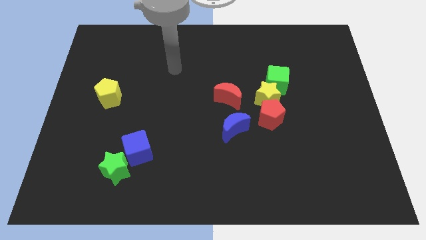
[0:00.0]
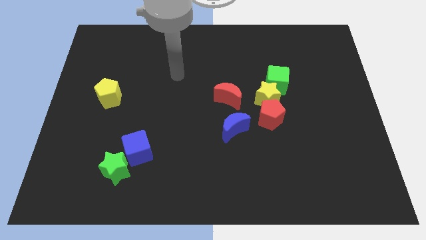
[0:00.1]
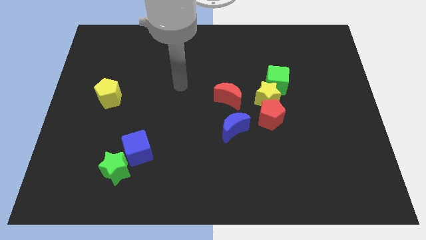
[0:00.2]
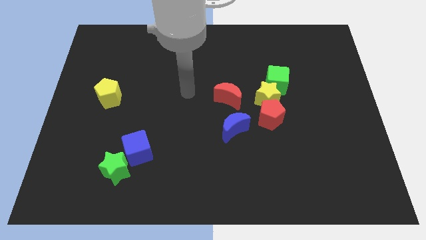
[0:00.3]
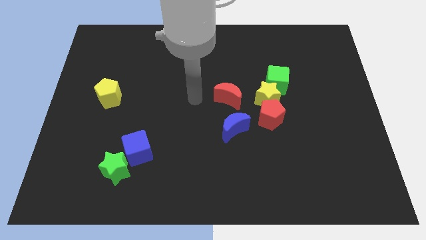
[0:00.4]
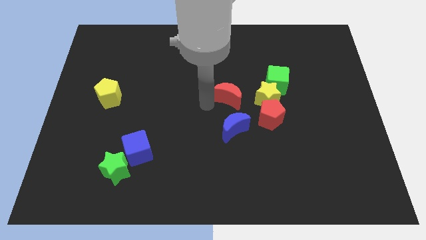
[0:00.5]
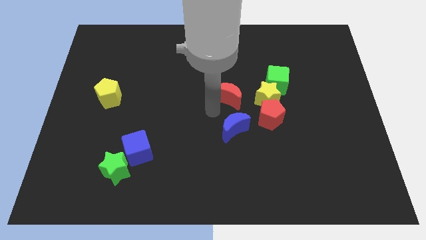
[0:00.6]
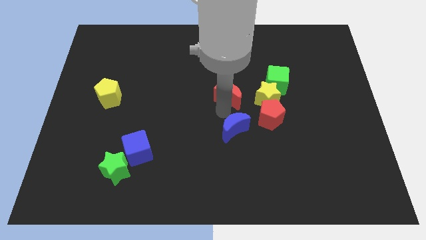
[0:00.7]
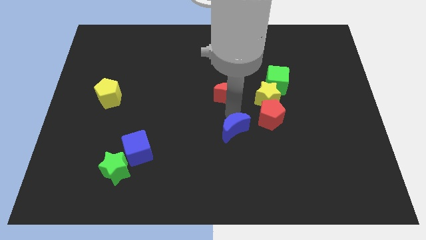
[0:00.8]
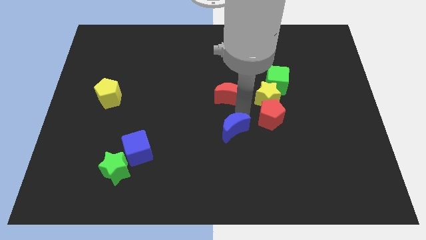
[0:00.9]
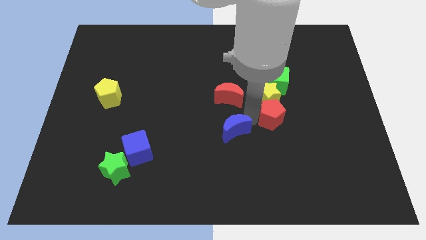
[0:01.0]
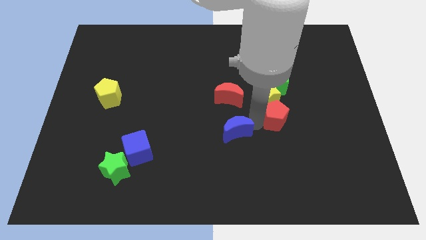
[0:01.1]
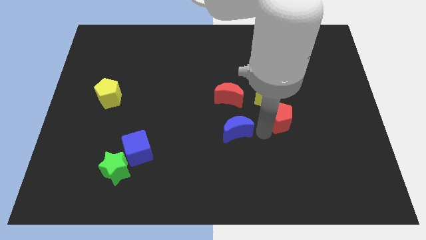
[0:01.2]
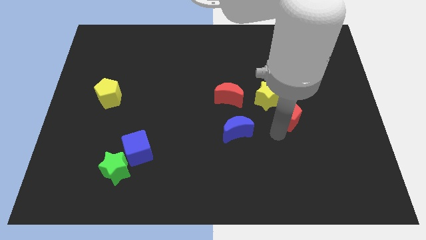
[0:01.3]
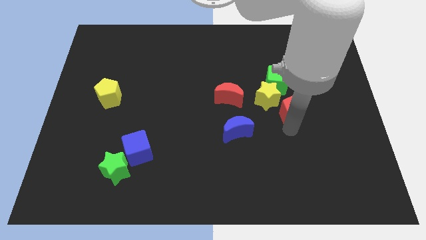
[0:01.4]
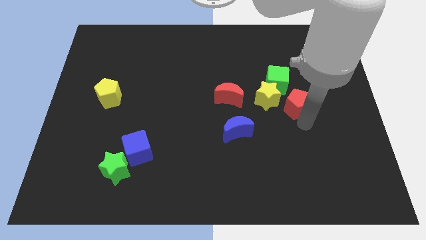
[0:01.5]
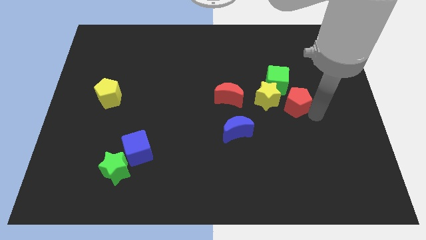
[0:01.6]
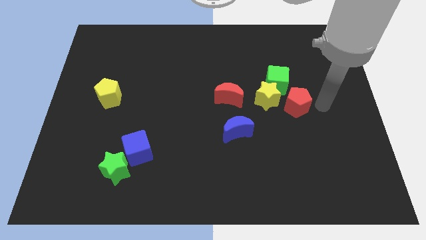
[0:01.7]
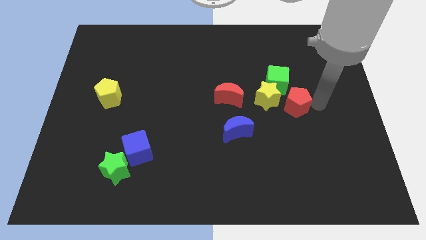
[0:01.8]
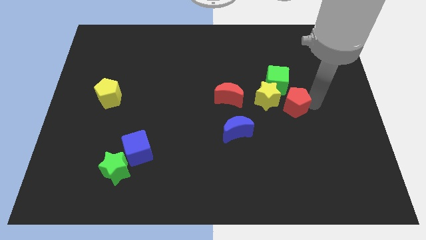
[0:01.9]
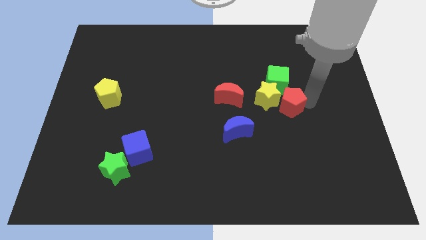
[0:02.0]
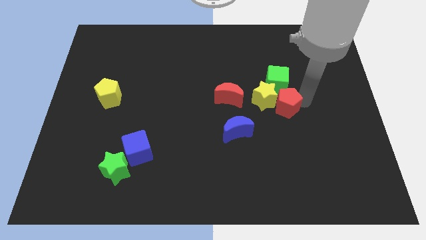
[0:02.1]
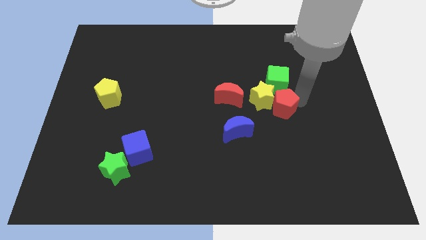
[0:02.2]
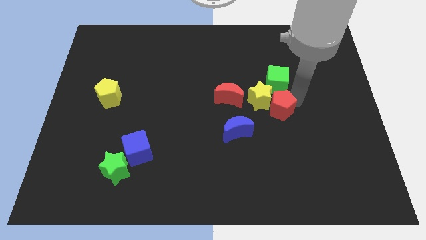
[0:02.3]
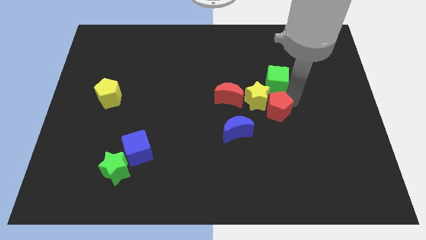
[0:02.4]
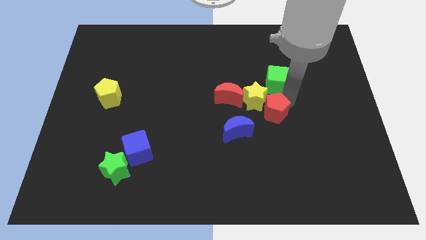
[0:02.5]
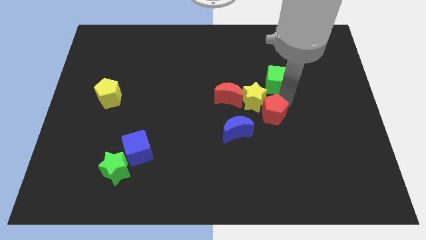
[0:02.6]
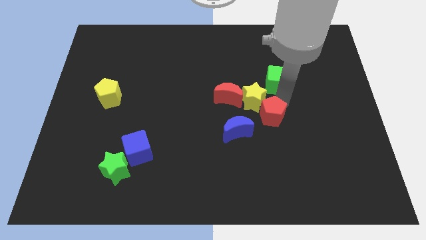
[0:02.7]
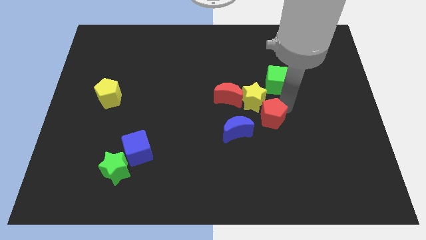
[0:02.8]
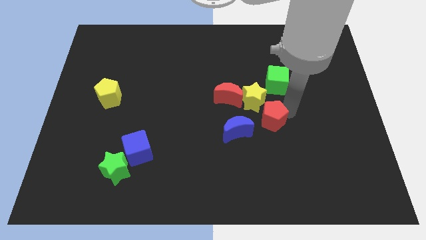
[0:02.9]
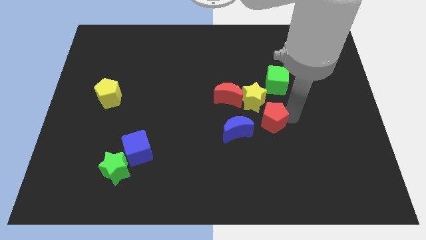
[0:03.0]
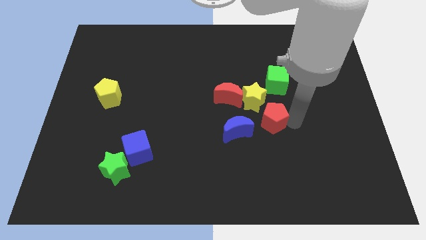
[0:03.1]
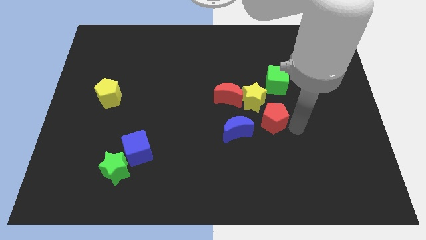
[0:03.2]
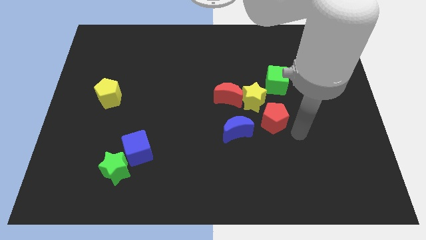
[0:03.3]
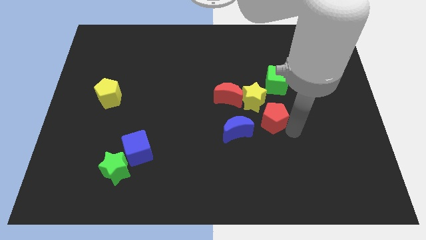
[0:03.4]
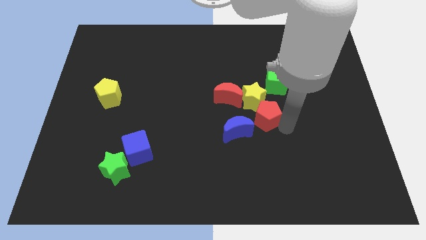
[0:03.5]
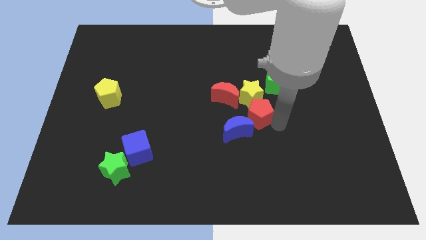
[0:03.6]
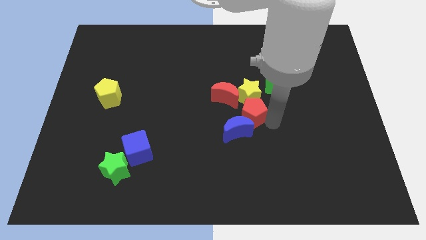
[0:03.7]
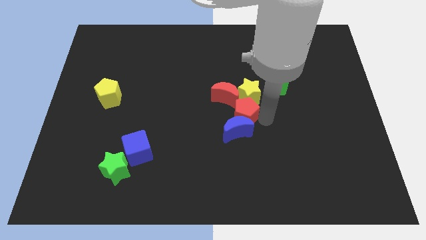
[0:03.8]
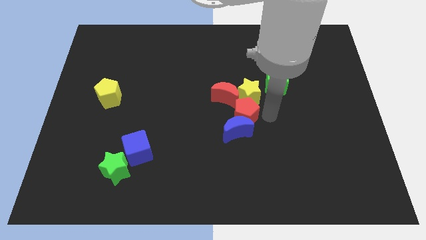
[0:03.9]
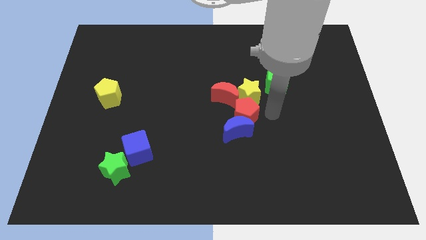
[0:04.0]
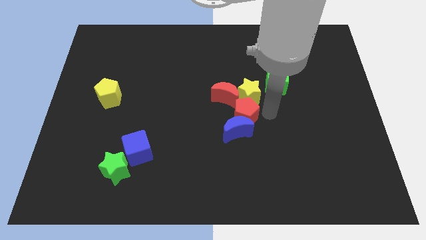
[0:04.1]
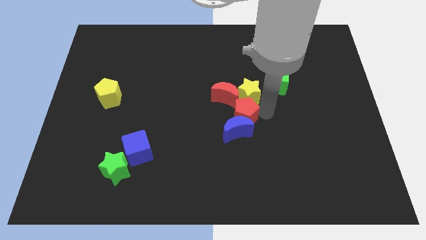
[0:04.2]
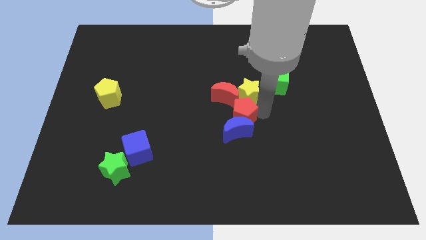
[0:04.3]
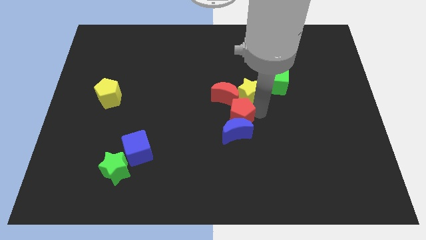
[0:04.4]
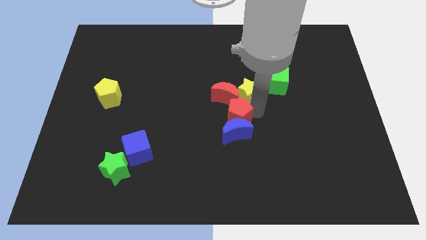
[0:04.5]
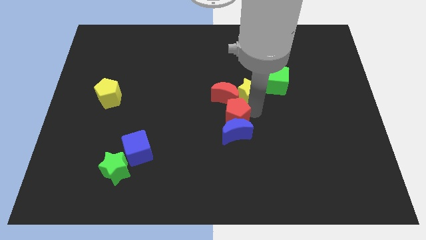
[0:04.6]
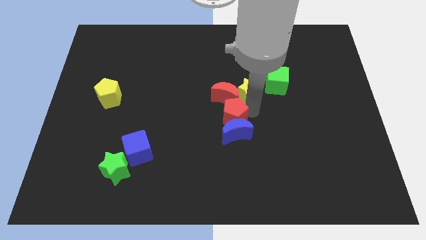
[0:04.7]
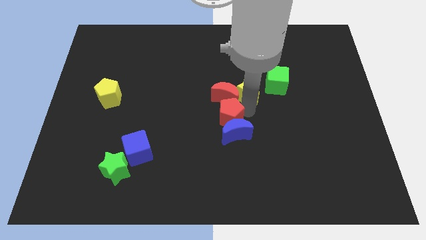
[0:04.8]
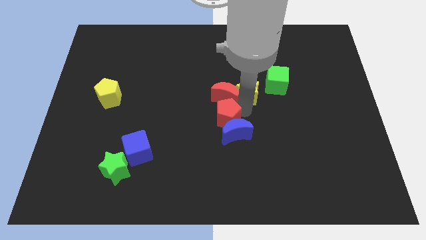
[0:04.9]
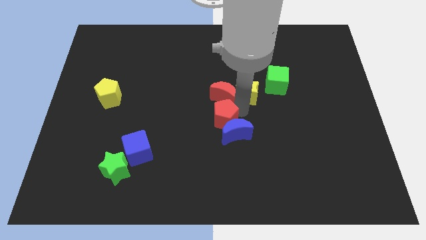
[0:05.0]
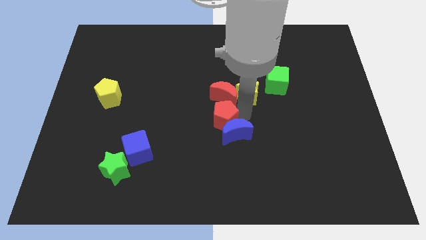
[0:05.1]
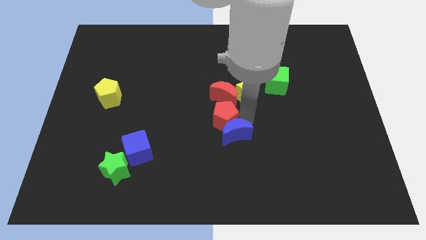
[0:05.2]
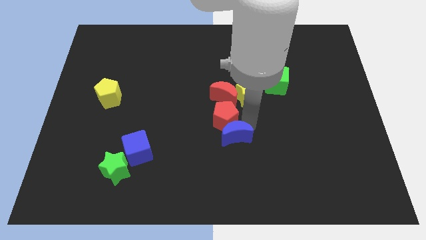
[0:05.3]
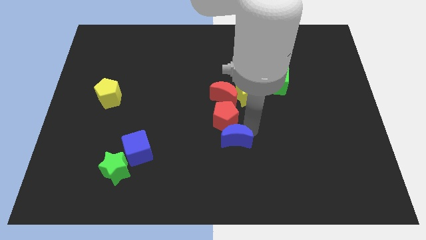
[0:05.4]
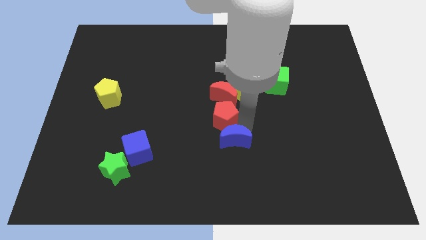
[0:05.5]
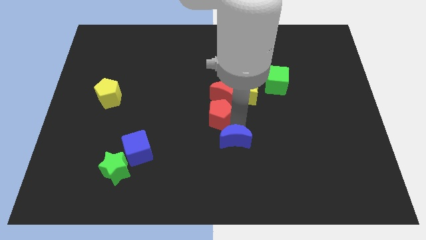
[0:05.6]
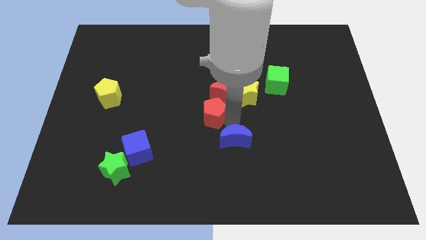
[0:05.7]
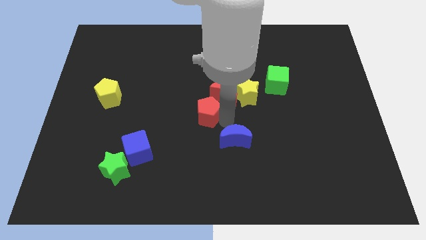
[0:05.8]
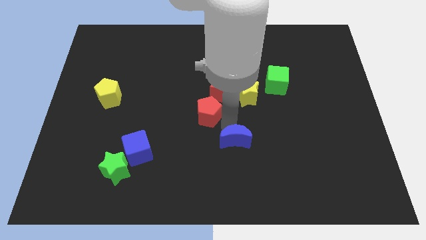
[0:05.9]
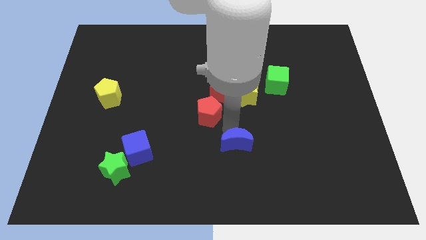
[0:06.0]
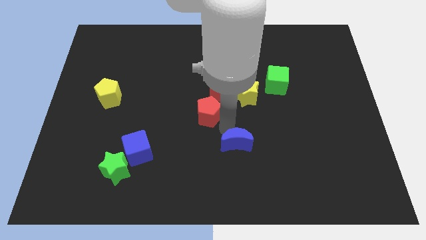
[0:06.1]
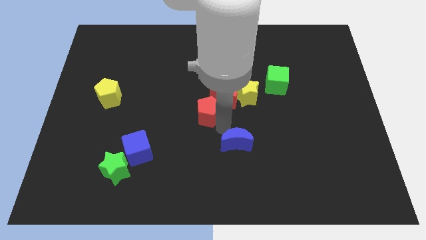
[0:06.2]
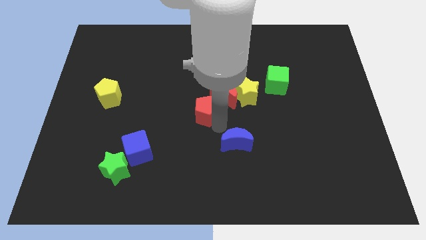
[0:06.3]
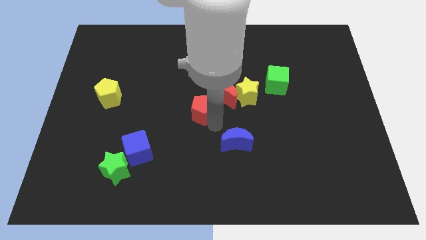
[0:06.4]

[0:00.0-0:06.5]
put the red pentagon to the left of the red moon
